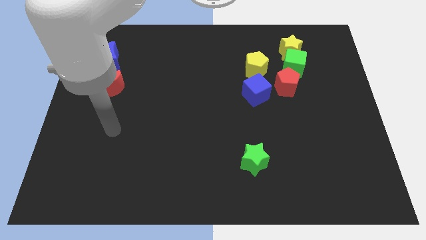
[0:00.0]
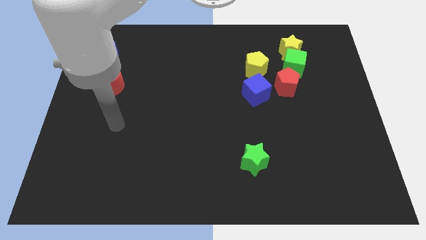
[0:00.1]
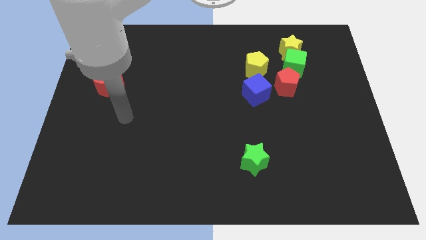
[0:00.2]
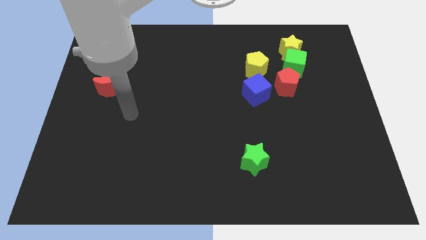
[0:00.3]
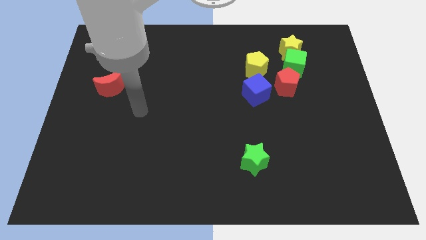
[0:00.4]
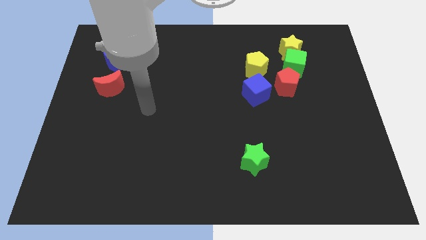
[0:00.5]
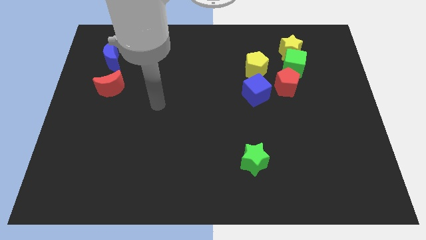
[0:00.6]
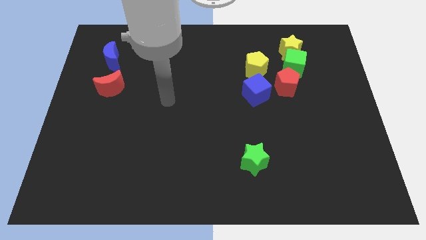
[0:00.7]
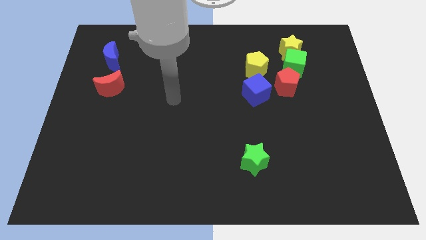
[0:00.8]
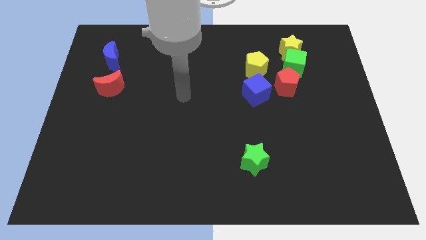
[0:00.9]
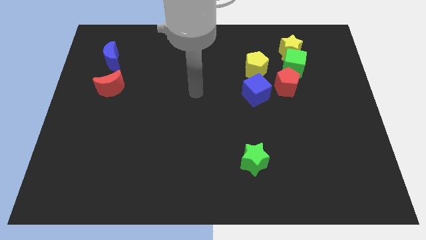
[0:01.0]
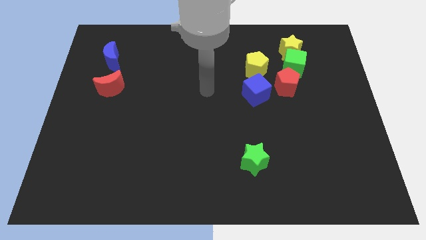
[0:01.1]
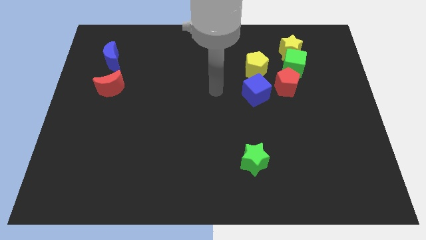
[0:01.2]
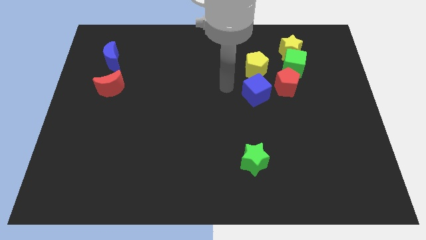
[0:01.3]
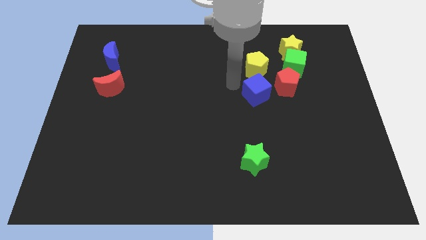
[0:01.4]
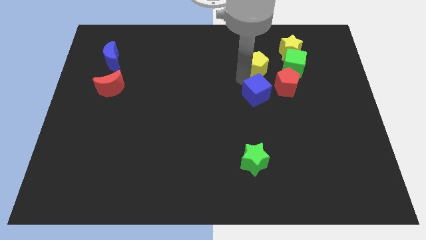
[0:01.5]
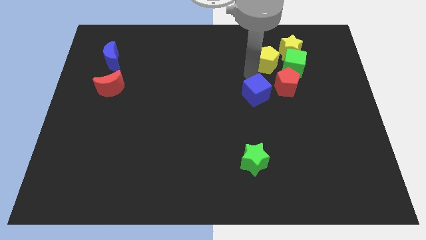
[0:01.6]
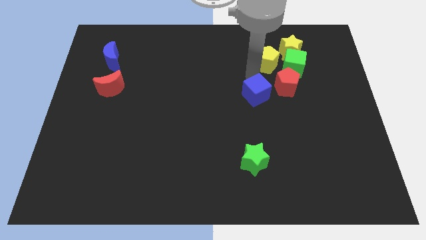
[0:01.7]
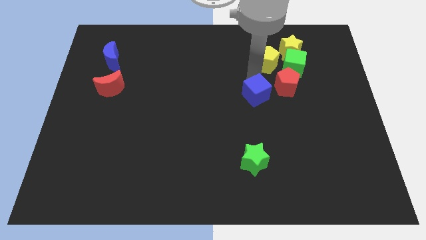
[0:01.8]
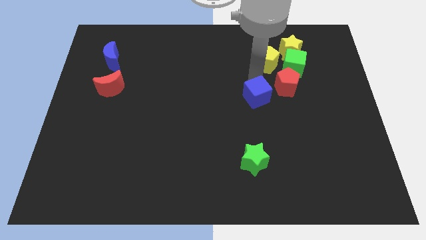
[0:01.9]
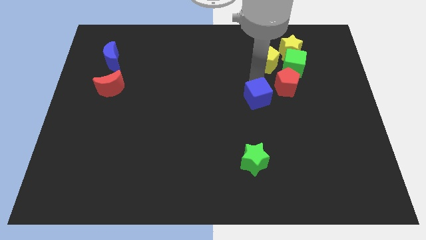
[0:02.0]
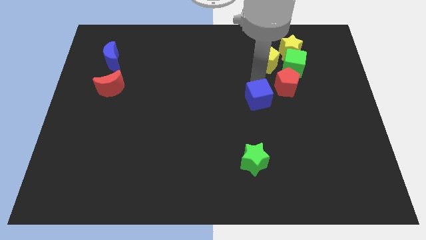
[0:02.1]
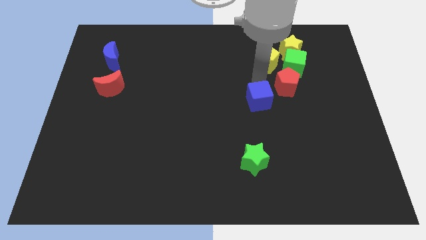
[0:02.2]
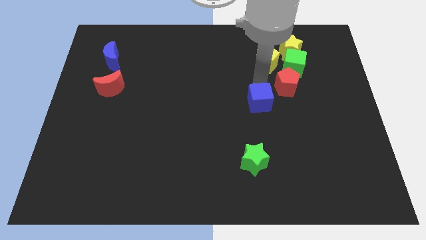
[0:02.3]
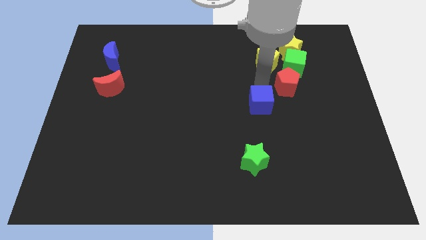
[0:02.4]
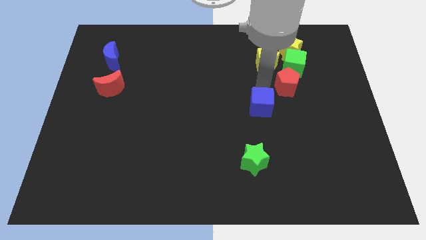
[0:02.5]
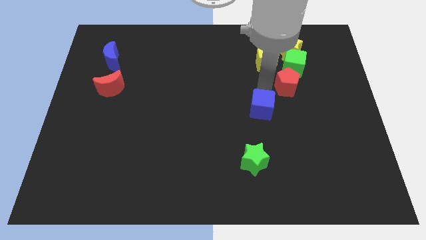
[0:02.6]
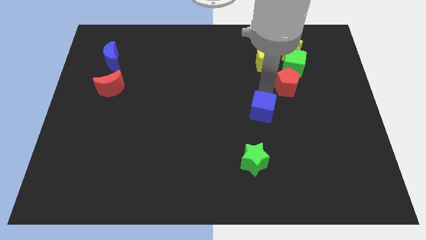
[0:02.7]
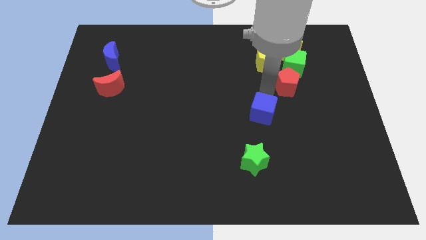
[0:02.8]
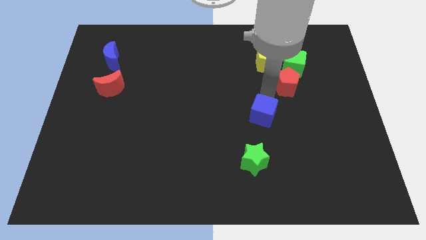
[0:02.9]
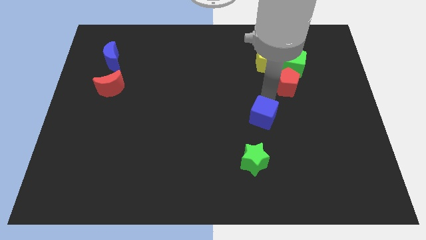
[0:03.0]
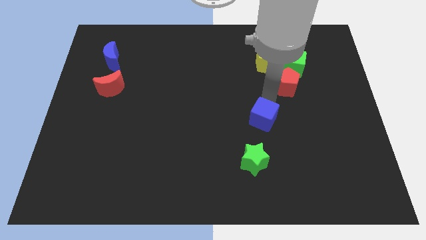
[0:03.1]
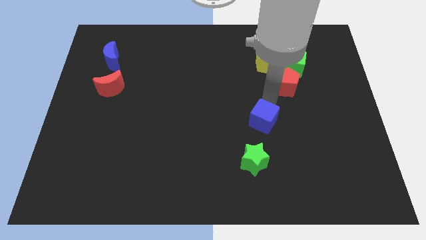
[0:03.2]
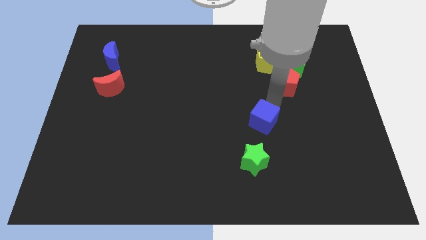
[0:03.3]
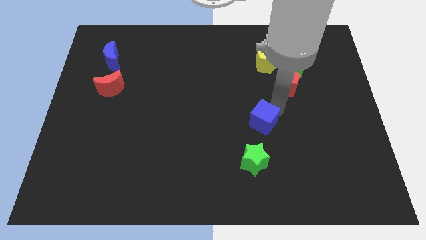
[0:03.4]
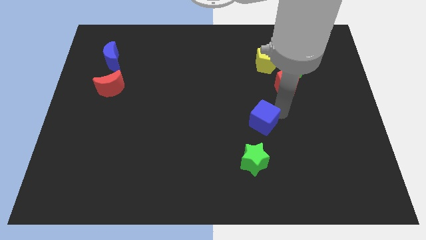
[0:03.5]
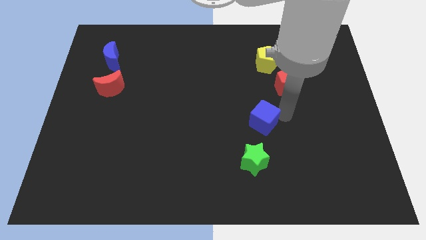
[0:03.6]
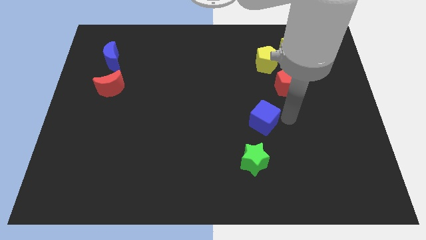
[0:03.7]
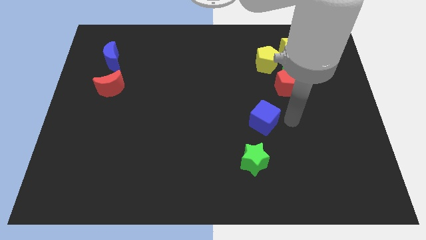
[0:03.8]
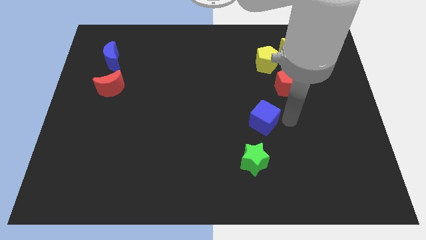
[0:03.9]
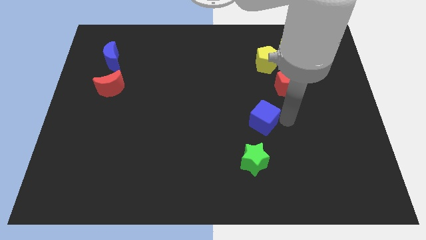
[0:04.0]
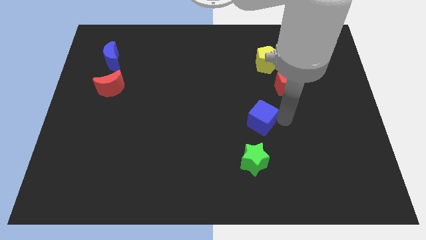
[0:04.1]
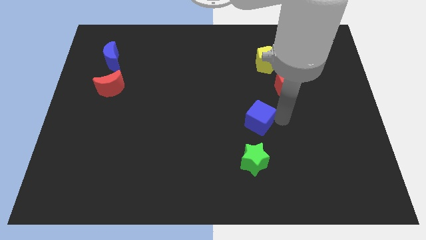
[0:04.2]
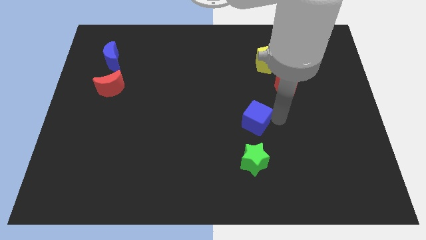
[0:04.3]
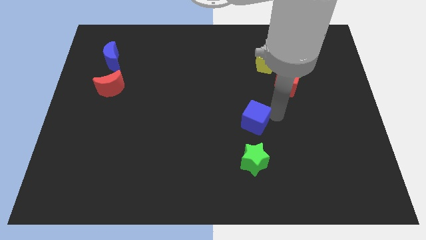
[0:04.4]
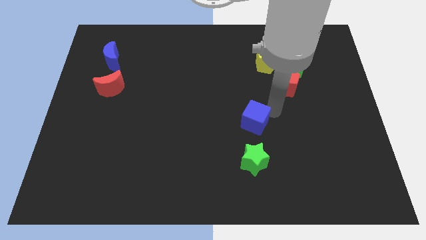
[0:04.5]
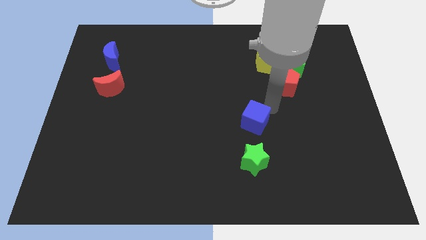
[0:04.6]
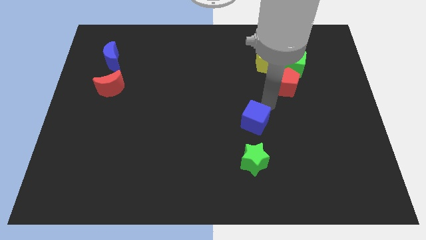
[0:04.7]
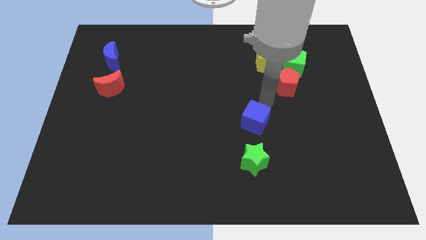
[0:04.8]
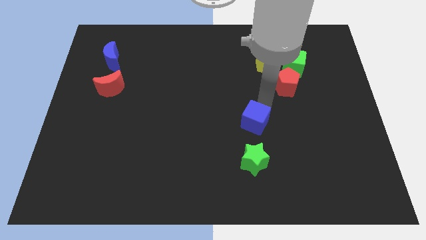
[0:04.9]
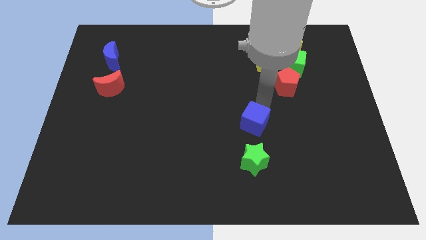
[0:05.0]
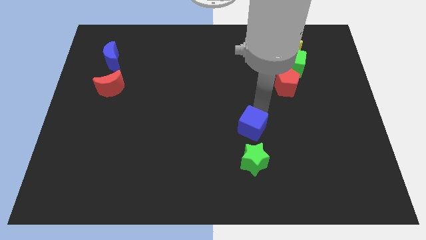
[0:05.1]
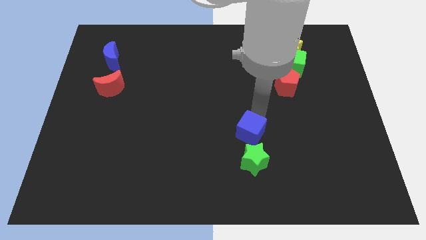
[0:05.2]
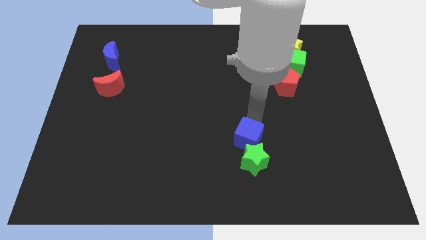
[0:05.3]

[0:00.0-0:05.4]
move the blue cube next to the green star

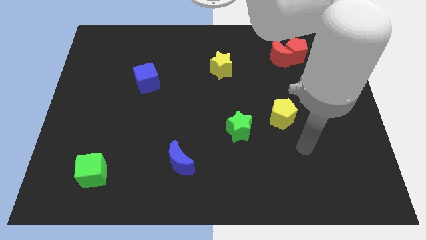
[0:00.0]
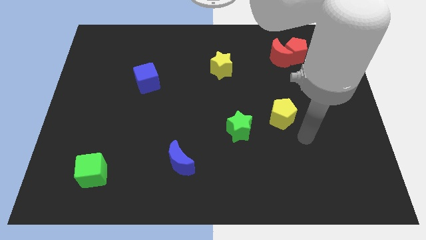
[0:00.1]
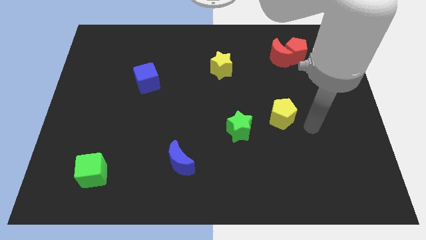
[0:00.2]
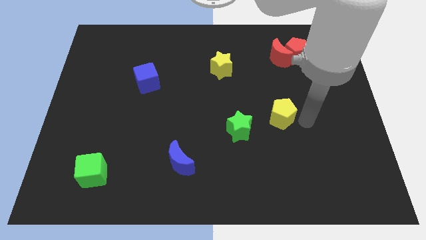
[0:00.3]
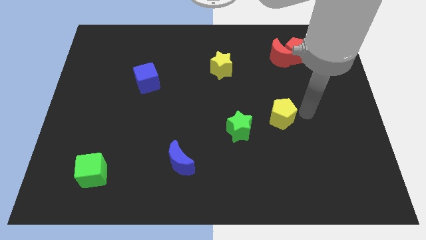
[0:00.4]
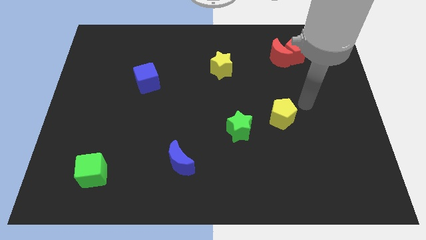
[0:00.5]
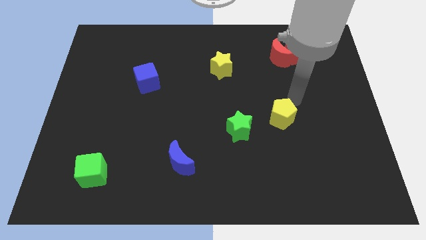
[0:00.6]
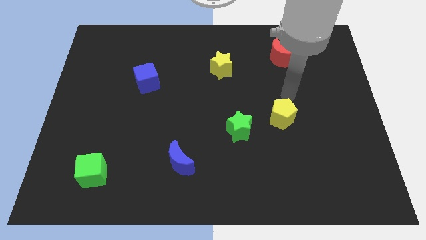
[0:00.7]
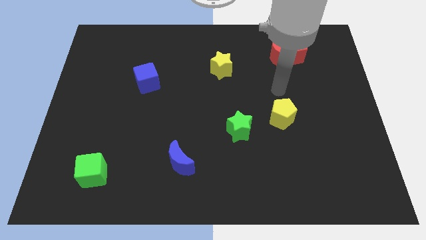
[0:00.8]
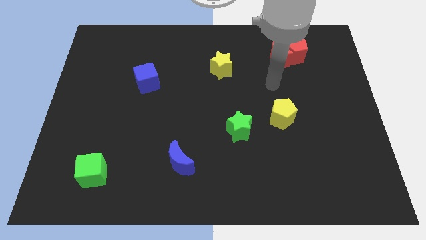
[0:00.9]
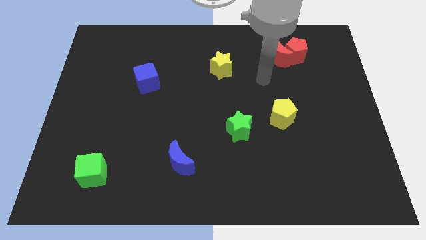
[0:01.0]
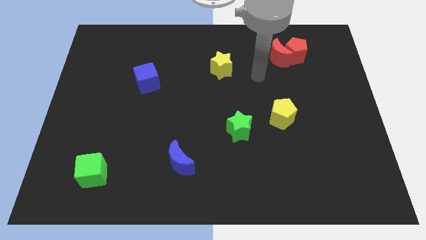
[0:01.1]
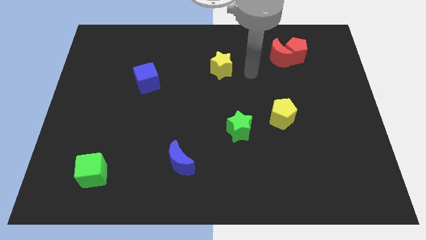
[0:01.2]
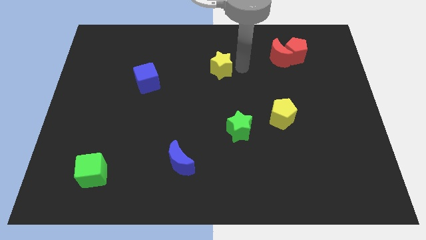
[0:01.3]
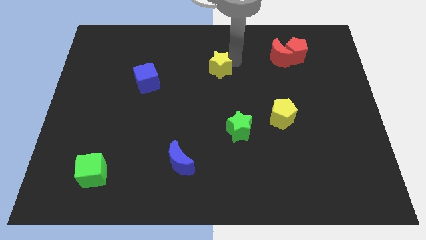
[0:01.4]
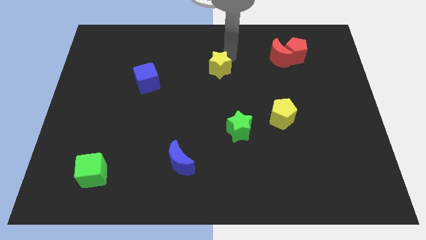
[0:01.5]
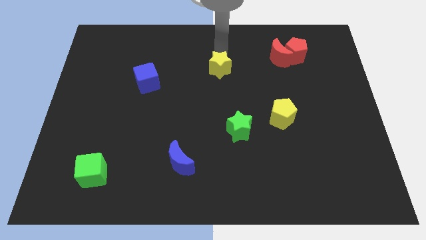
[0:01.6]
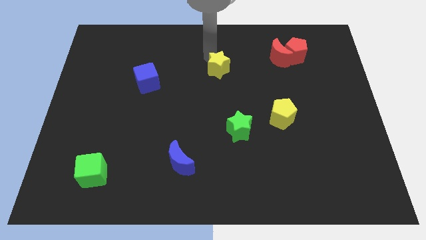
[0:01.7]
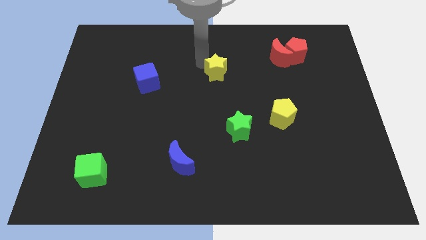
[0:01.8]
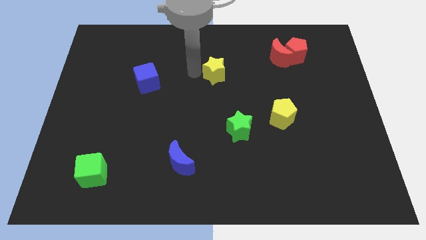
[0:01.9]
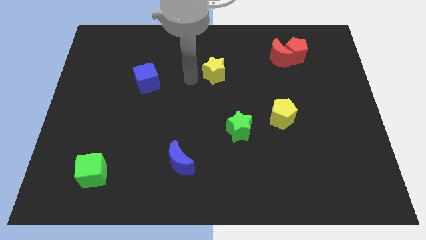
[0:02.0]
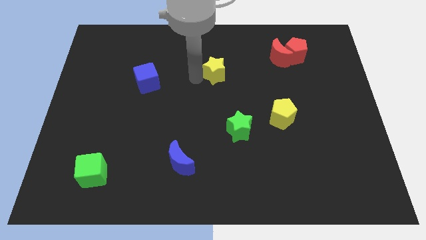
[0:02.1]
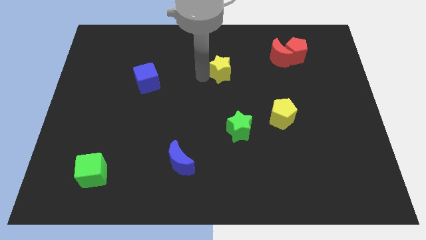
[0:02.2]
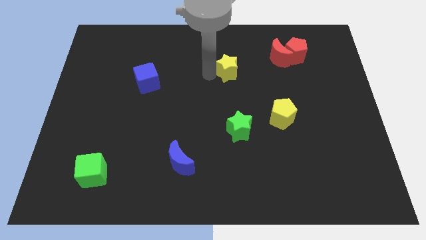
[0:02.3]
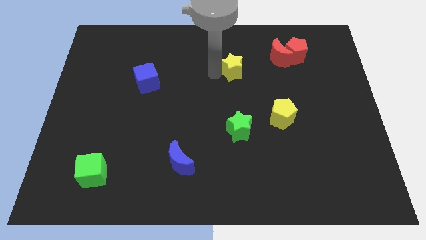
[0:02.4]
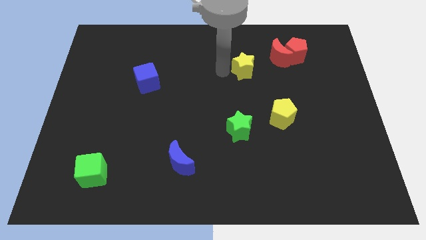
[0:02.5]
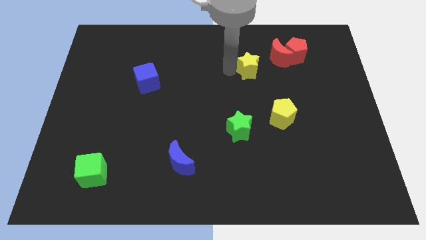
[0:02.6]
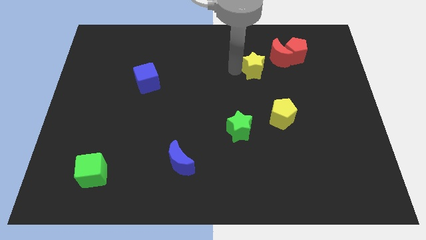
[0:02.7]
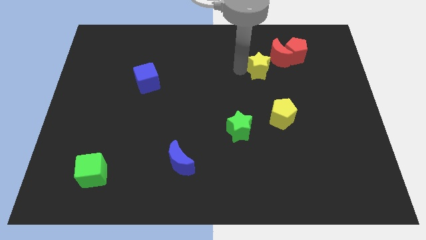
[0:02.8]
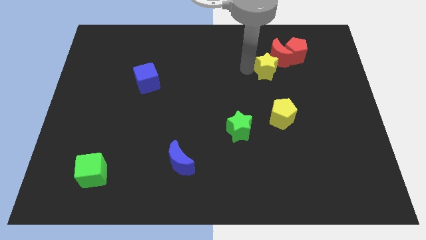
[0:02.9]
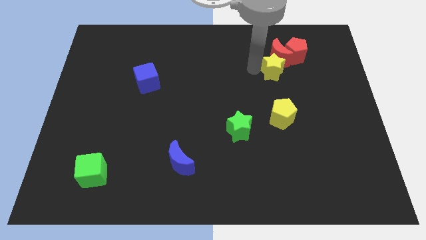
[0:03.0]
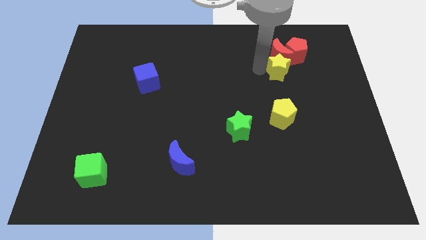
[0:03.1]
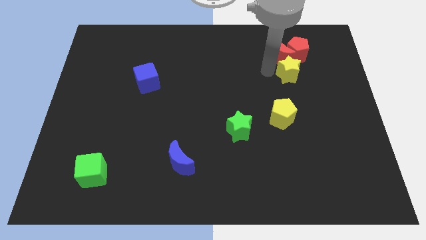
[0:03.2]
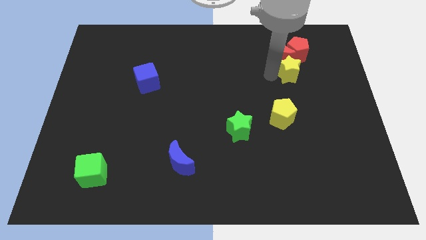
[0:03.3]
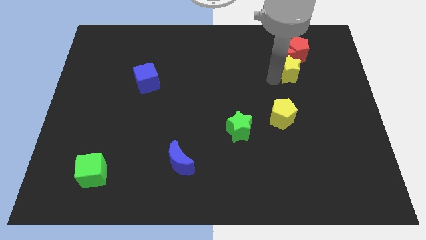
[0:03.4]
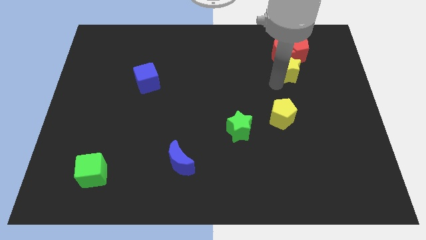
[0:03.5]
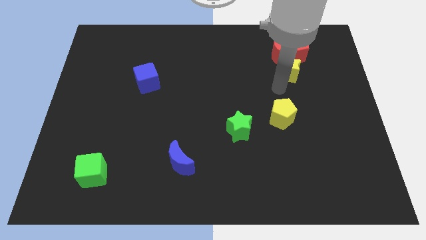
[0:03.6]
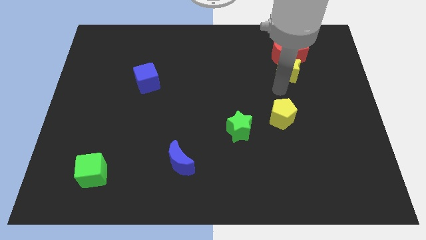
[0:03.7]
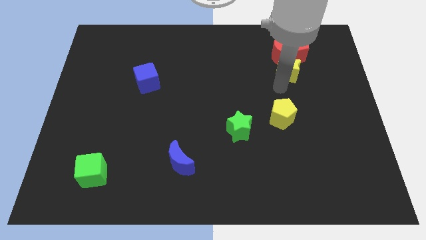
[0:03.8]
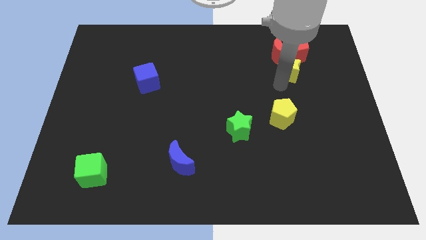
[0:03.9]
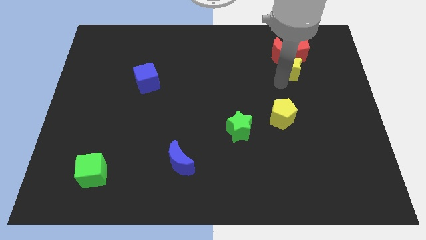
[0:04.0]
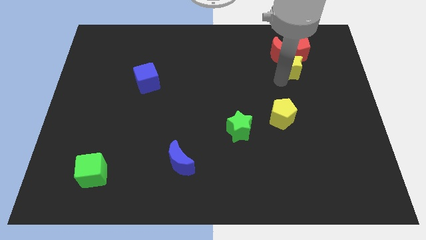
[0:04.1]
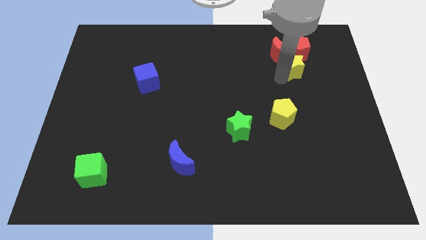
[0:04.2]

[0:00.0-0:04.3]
push the yellow star next to the red pentagon
